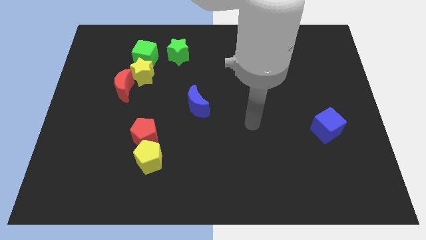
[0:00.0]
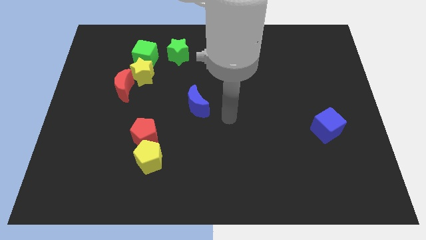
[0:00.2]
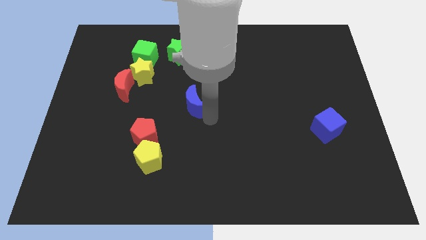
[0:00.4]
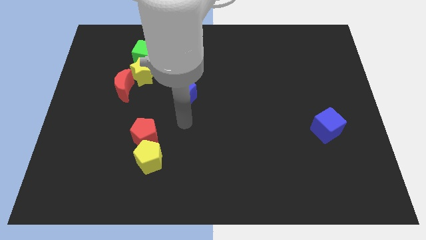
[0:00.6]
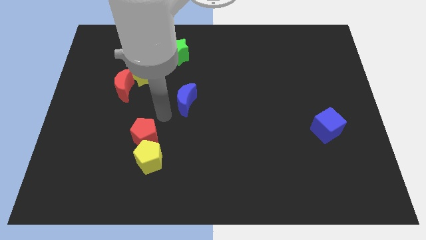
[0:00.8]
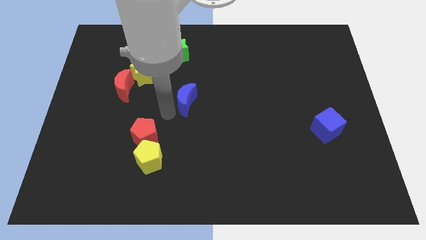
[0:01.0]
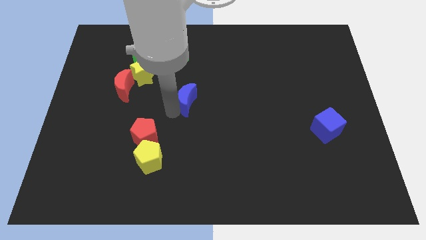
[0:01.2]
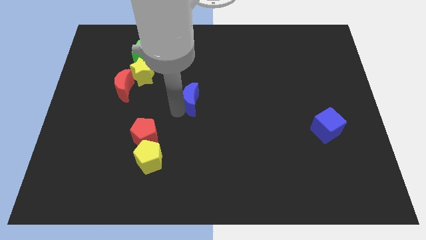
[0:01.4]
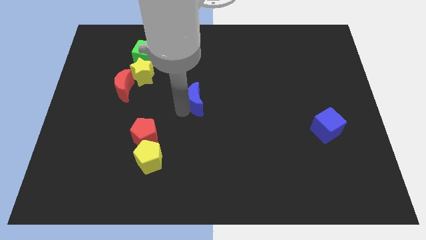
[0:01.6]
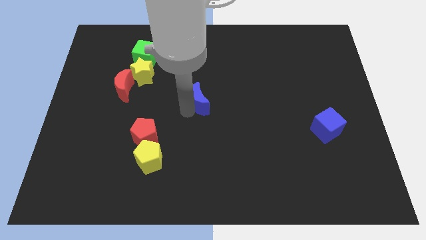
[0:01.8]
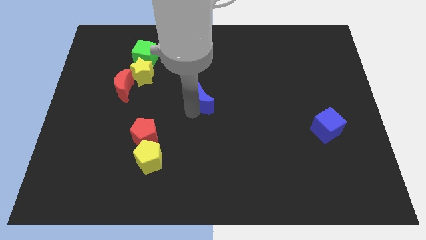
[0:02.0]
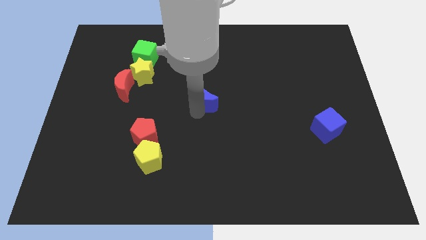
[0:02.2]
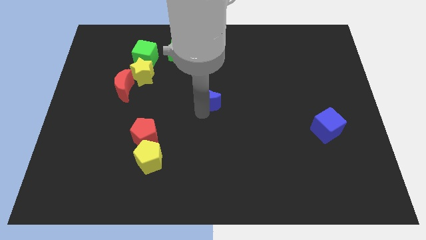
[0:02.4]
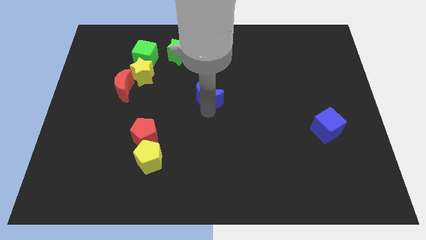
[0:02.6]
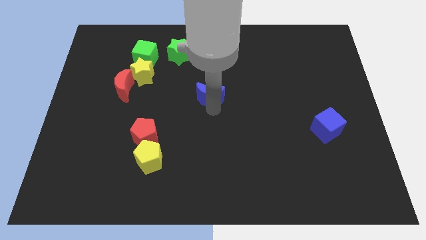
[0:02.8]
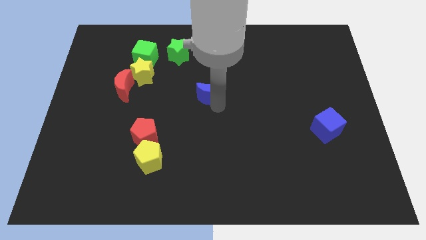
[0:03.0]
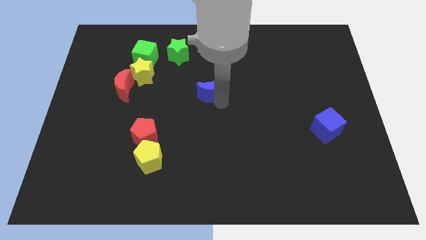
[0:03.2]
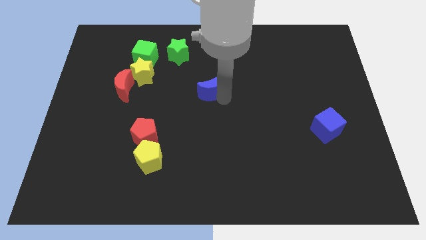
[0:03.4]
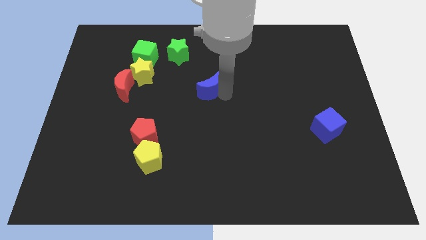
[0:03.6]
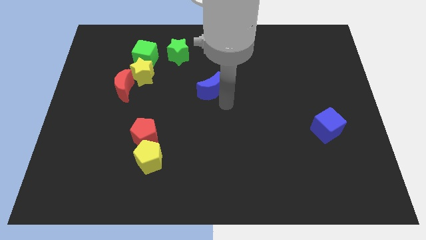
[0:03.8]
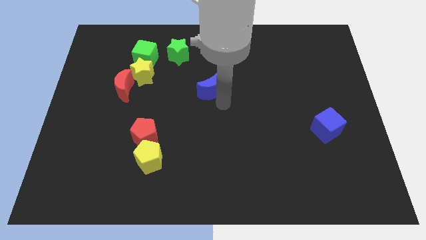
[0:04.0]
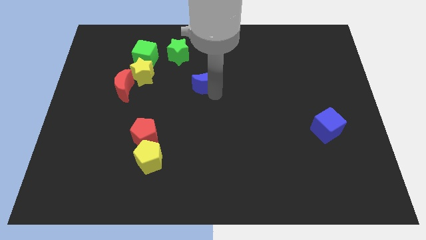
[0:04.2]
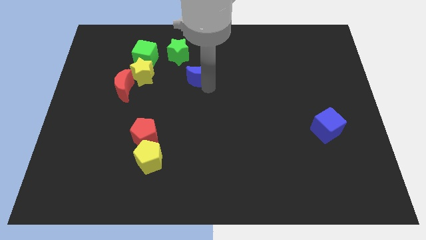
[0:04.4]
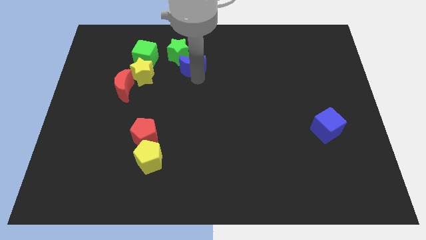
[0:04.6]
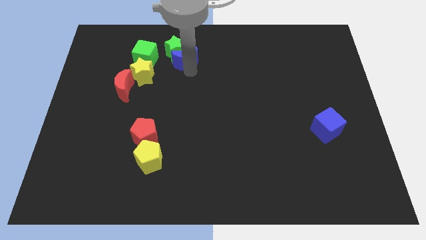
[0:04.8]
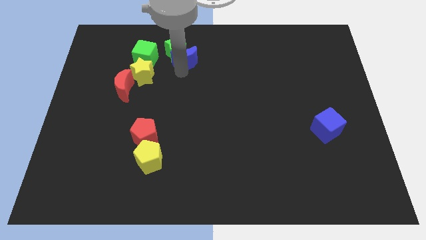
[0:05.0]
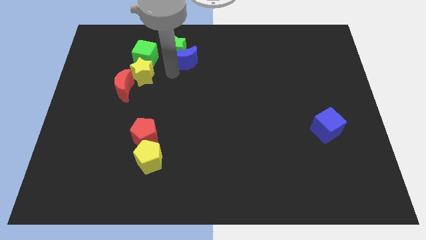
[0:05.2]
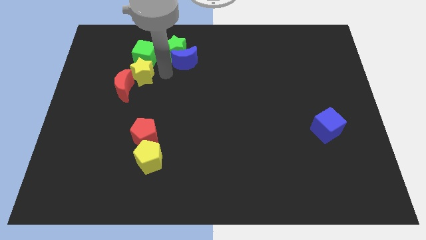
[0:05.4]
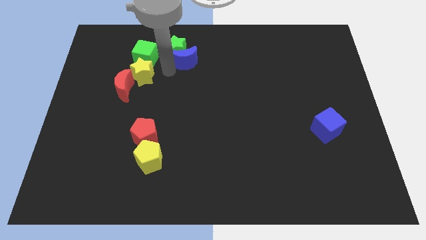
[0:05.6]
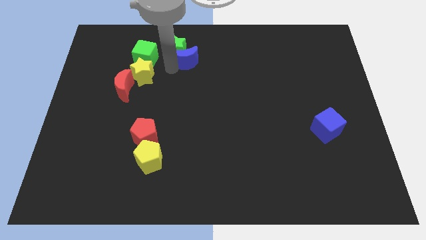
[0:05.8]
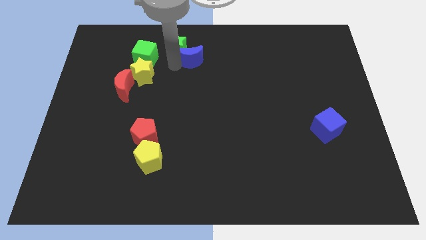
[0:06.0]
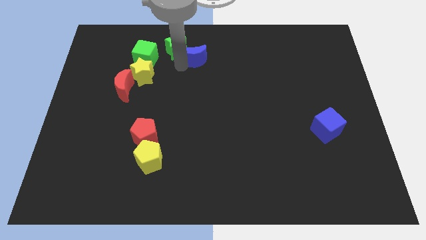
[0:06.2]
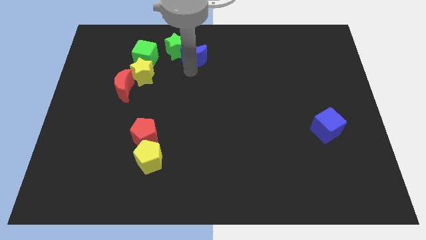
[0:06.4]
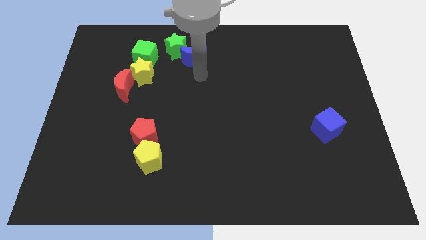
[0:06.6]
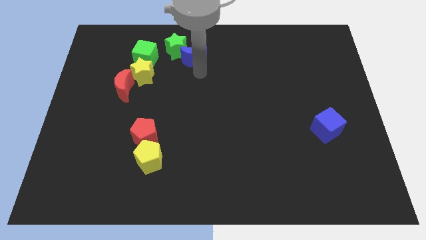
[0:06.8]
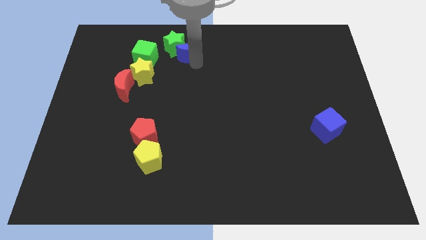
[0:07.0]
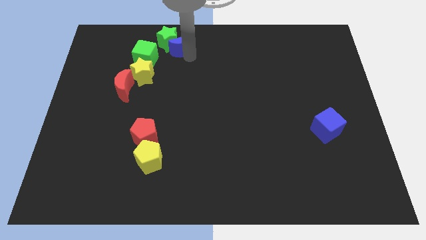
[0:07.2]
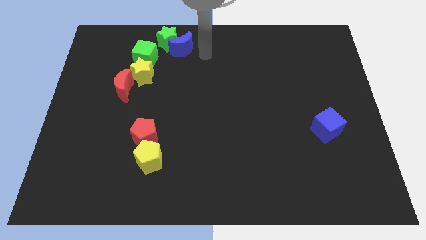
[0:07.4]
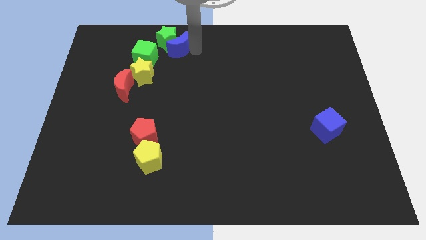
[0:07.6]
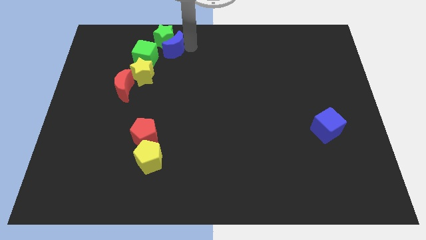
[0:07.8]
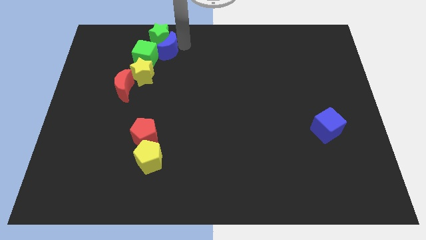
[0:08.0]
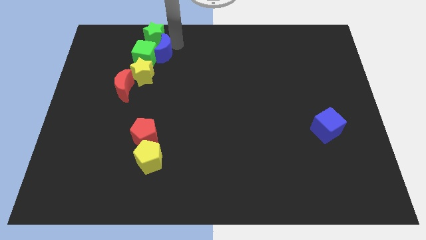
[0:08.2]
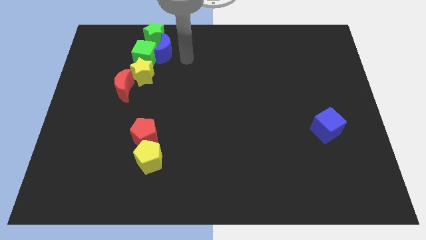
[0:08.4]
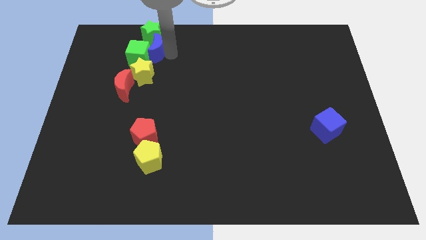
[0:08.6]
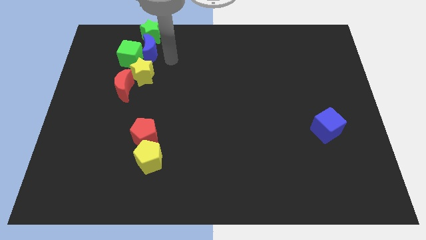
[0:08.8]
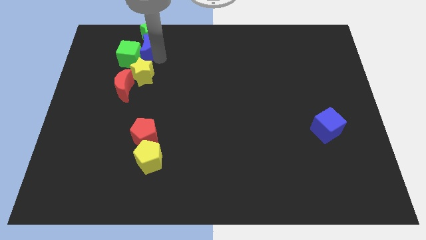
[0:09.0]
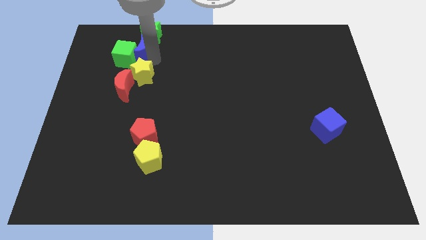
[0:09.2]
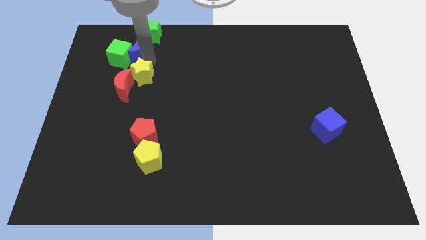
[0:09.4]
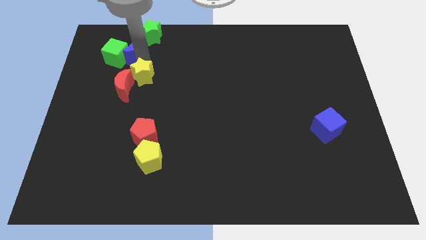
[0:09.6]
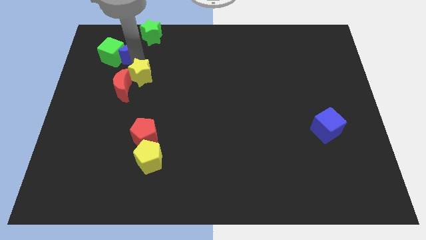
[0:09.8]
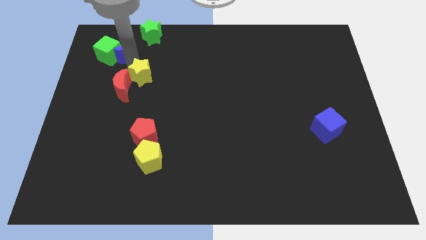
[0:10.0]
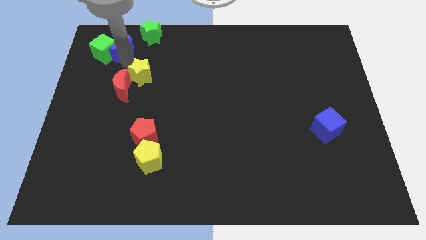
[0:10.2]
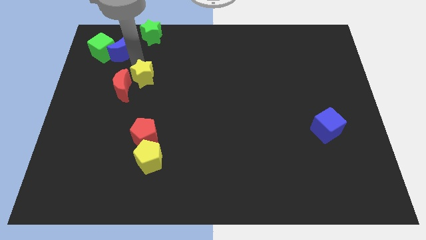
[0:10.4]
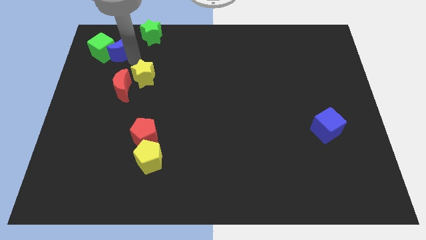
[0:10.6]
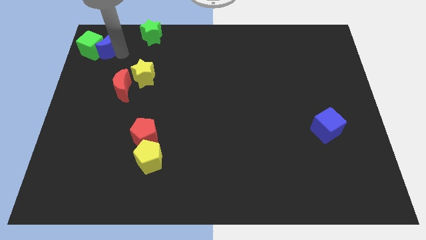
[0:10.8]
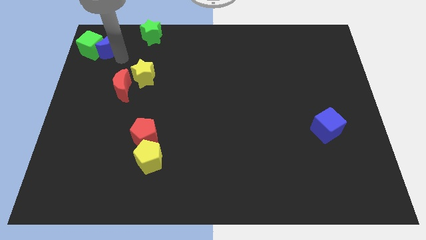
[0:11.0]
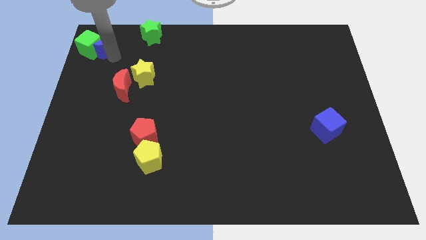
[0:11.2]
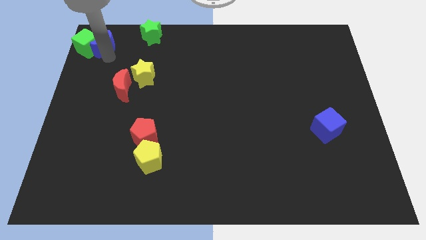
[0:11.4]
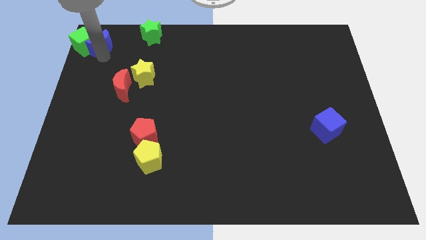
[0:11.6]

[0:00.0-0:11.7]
slide the blue moon to the upper left corner

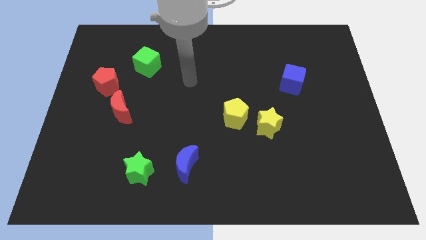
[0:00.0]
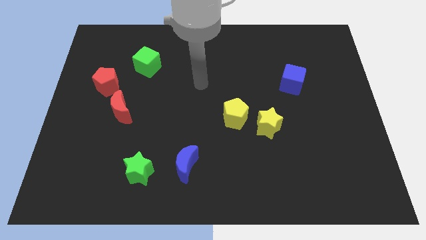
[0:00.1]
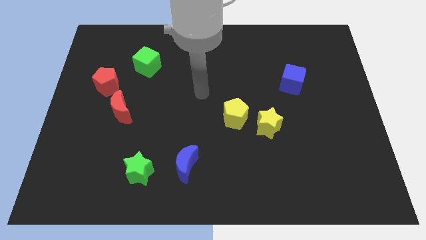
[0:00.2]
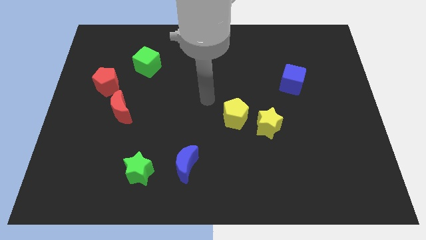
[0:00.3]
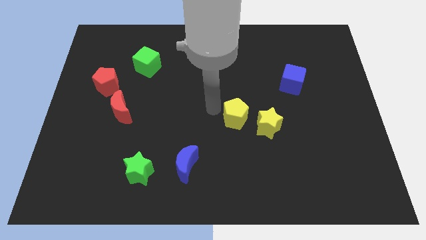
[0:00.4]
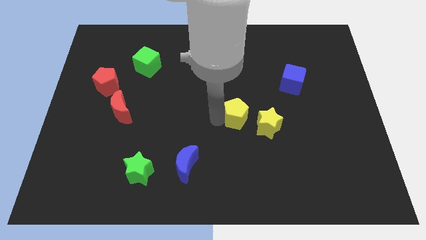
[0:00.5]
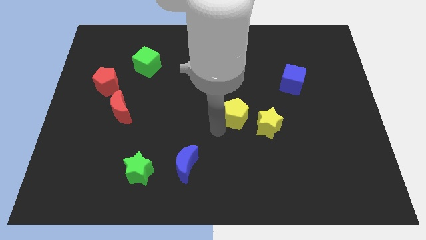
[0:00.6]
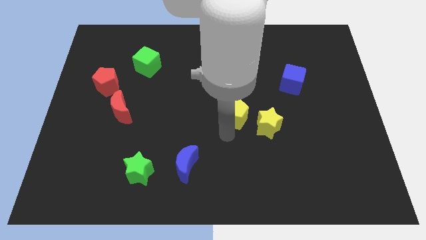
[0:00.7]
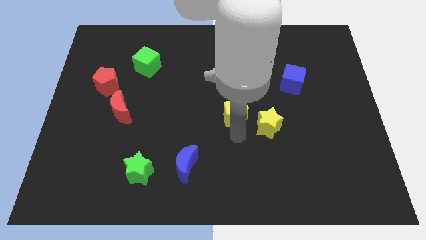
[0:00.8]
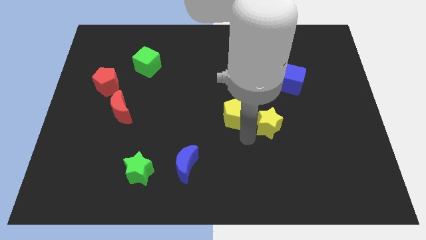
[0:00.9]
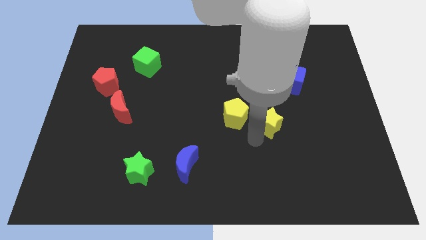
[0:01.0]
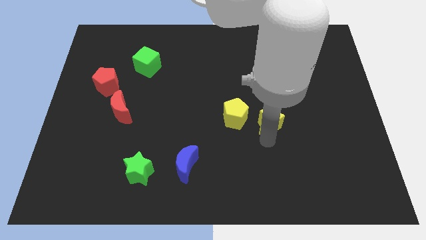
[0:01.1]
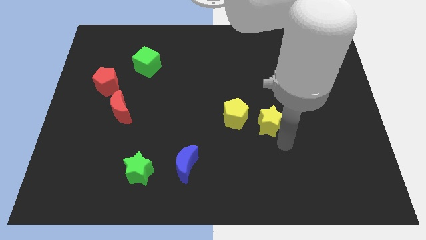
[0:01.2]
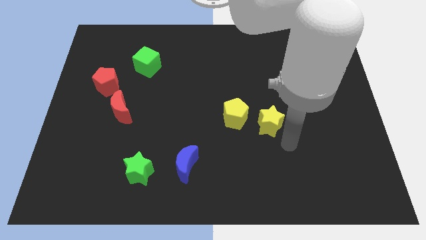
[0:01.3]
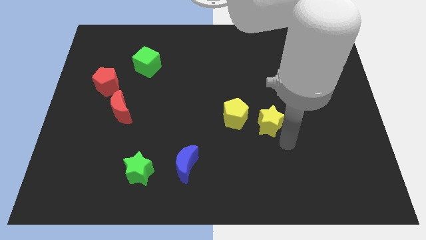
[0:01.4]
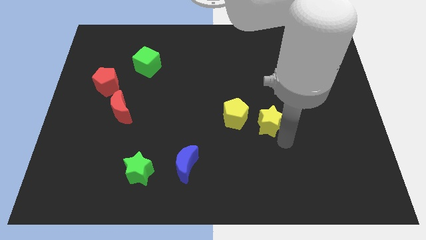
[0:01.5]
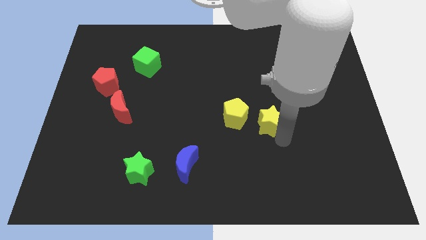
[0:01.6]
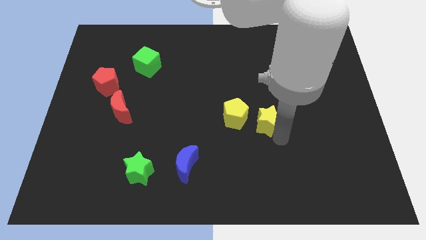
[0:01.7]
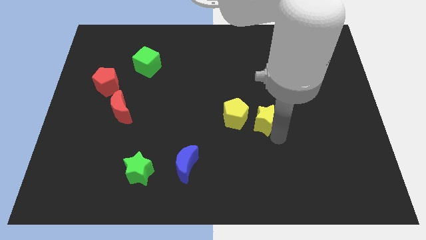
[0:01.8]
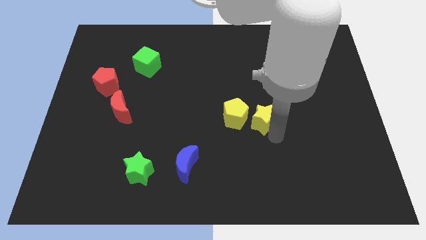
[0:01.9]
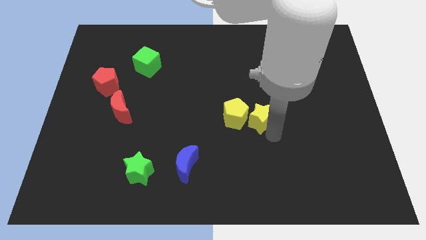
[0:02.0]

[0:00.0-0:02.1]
put the yellow star to the middle
